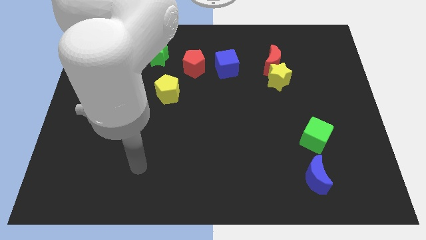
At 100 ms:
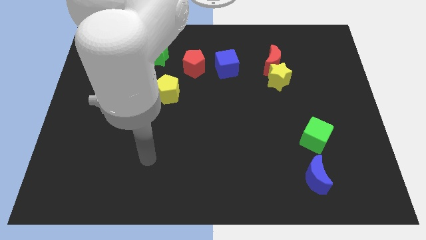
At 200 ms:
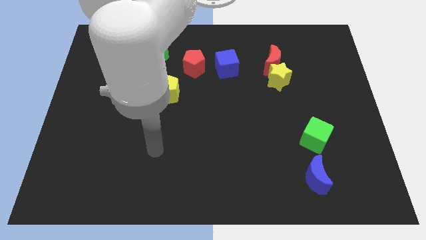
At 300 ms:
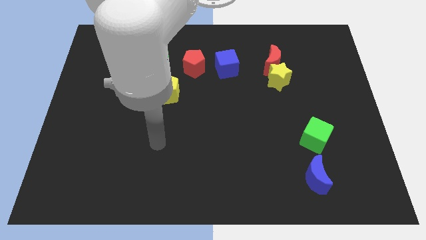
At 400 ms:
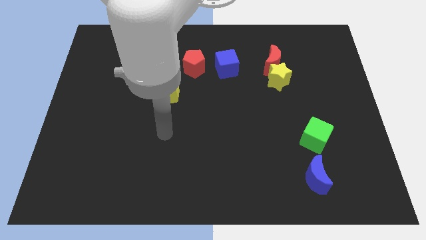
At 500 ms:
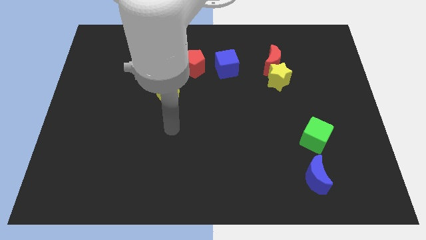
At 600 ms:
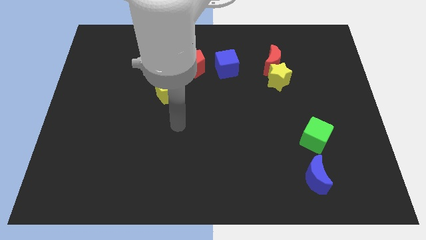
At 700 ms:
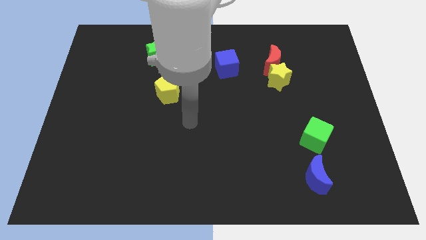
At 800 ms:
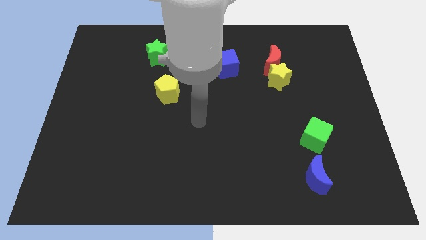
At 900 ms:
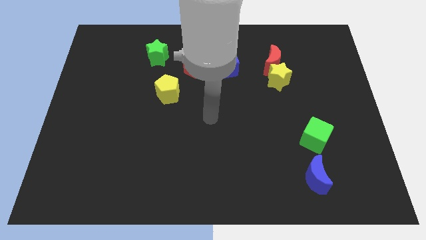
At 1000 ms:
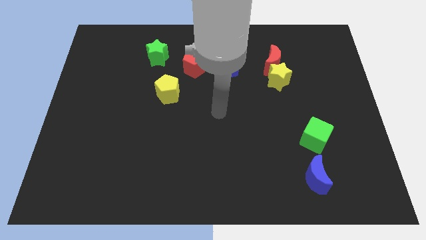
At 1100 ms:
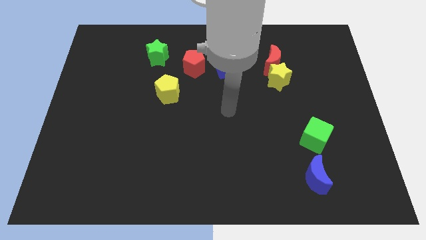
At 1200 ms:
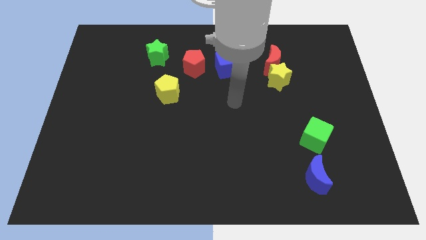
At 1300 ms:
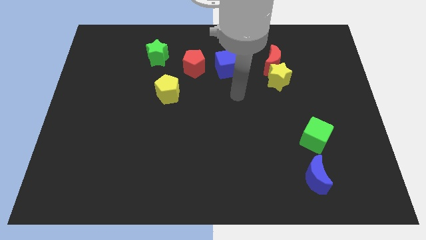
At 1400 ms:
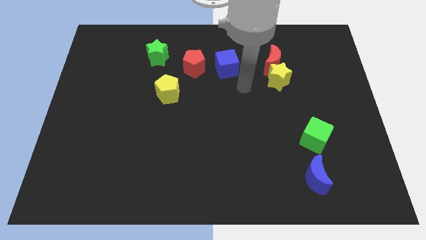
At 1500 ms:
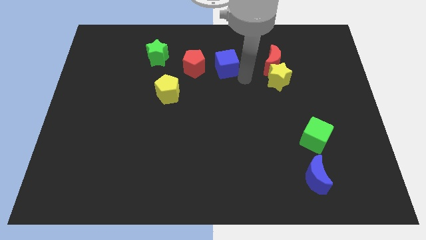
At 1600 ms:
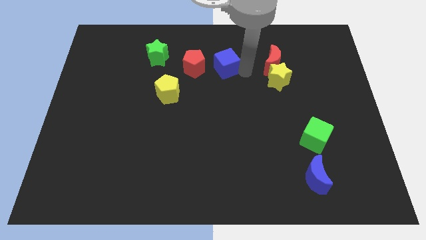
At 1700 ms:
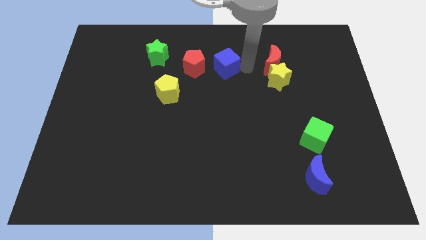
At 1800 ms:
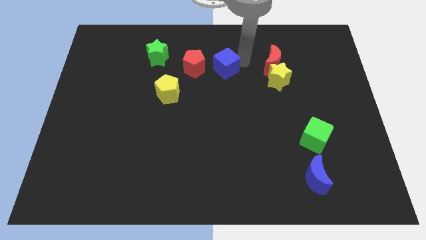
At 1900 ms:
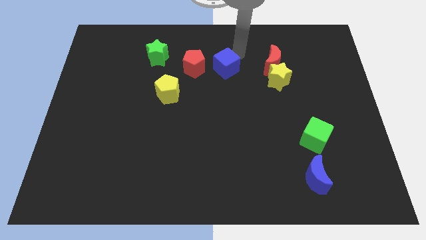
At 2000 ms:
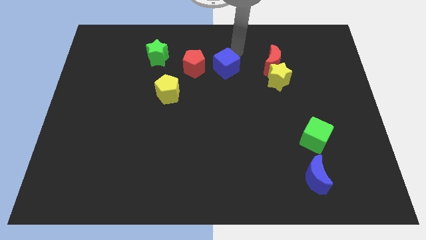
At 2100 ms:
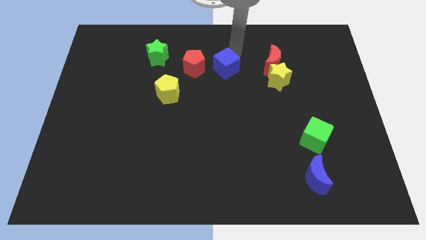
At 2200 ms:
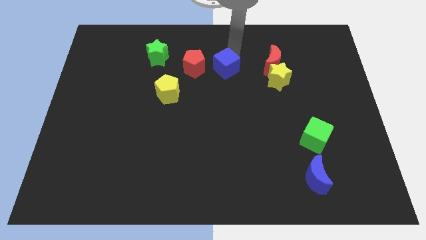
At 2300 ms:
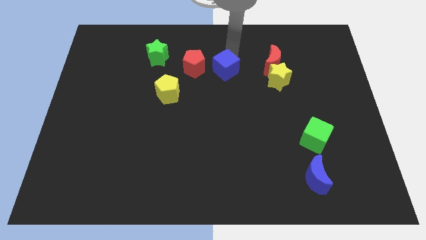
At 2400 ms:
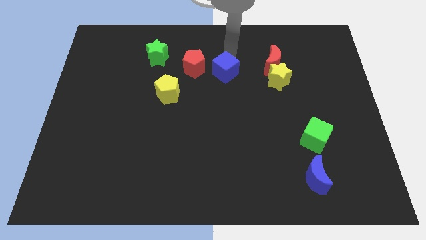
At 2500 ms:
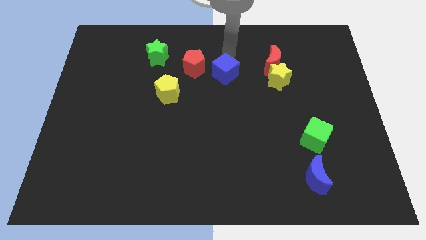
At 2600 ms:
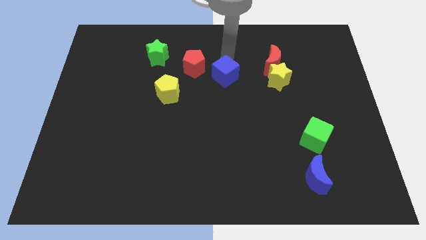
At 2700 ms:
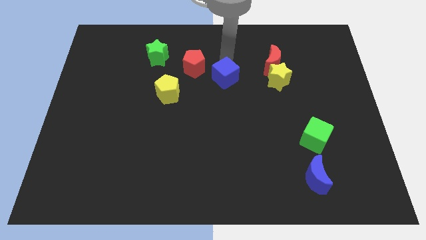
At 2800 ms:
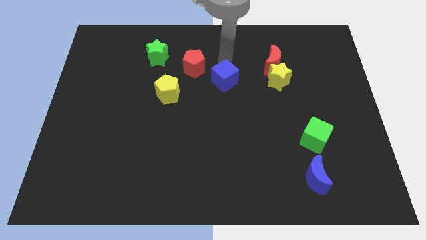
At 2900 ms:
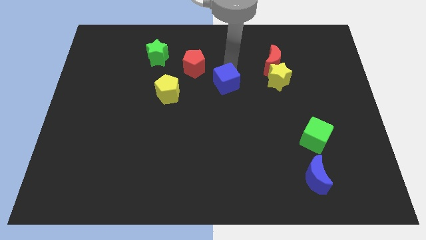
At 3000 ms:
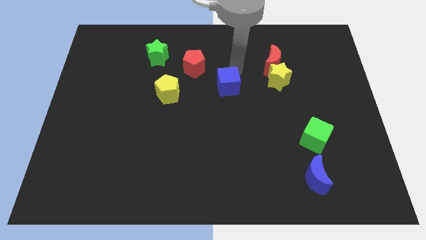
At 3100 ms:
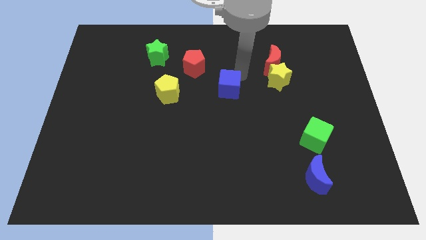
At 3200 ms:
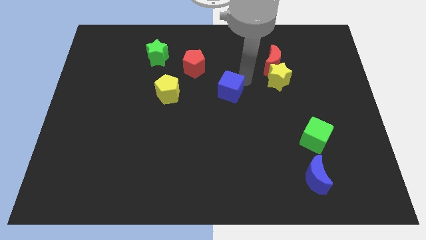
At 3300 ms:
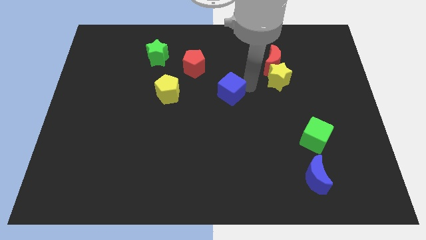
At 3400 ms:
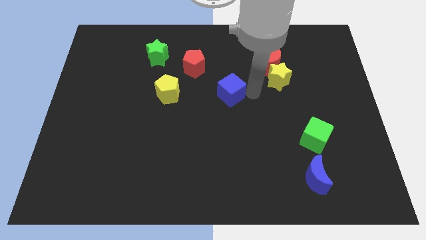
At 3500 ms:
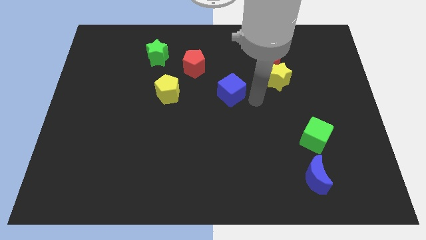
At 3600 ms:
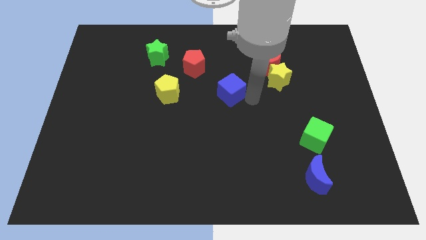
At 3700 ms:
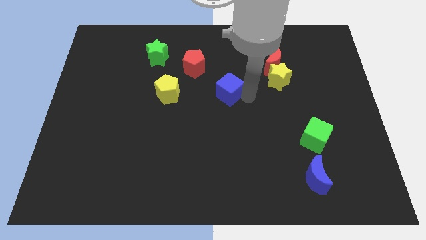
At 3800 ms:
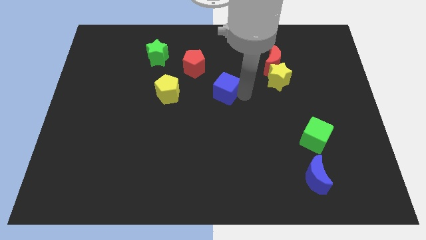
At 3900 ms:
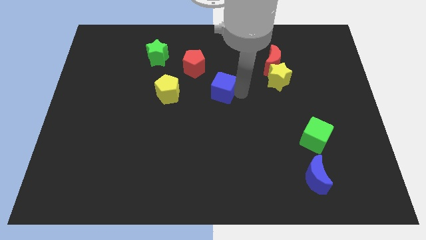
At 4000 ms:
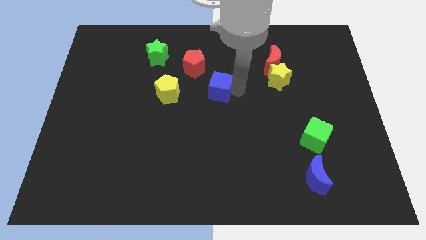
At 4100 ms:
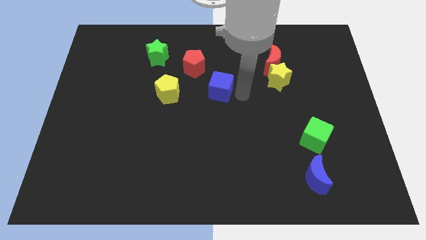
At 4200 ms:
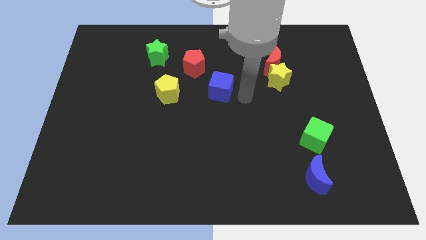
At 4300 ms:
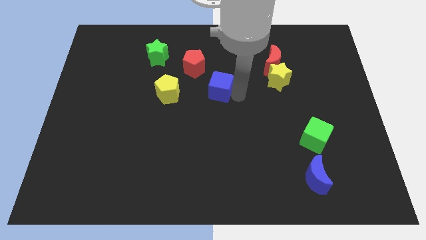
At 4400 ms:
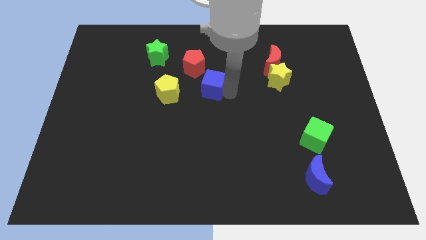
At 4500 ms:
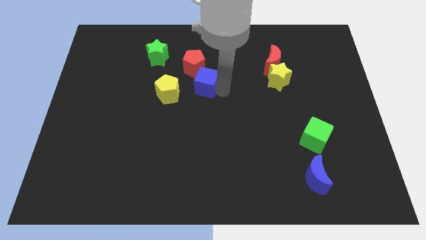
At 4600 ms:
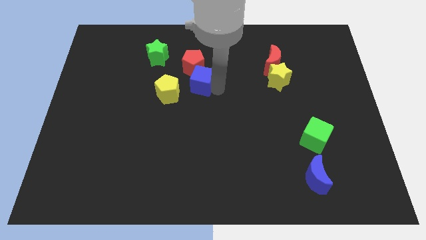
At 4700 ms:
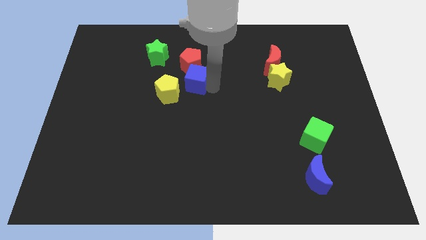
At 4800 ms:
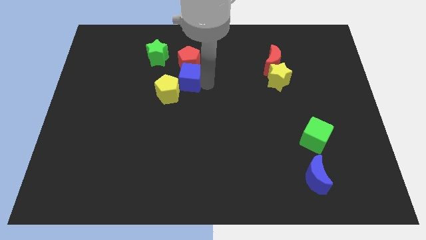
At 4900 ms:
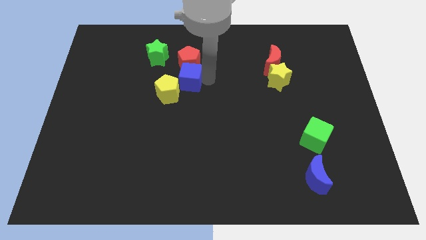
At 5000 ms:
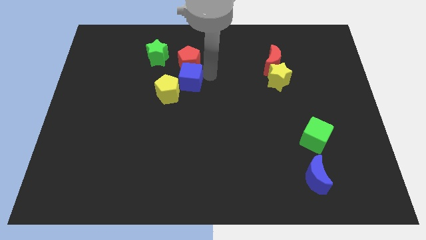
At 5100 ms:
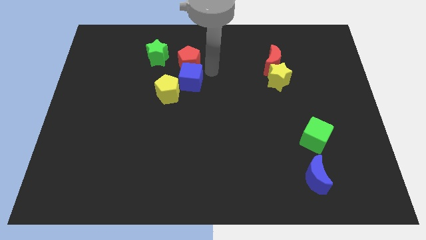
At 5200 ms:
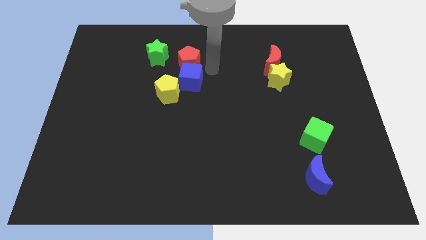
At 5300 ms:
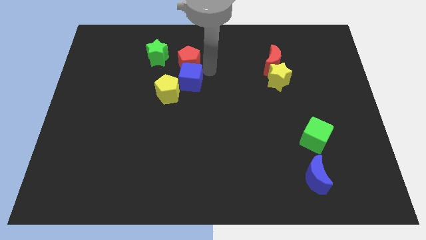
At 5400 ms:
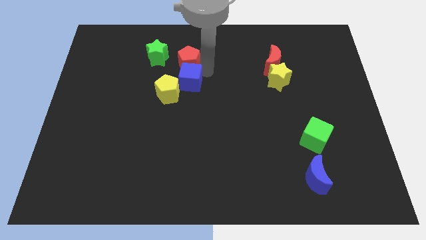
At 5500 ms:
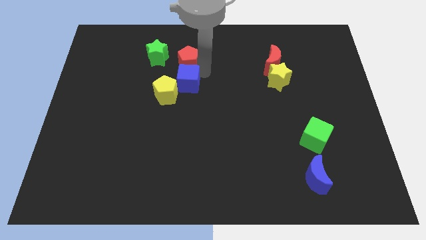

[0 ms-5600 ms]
put the blue cube to the yellow pentagon

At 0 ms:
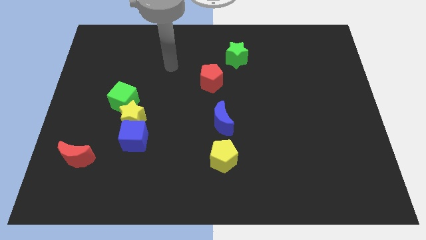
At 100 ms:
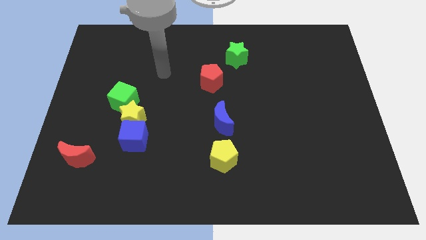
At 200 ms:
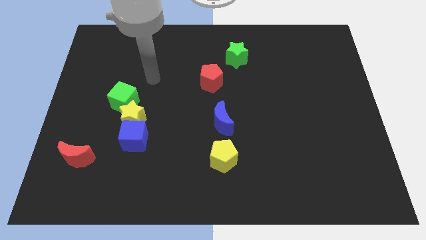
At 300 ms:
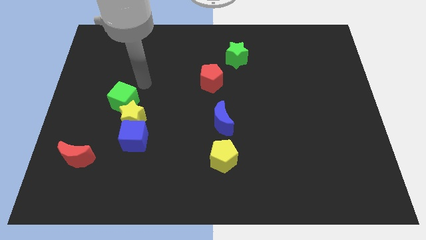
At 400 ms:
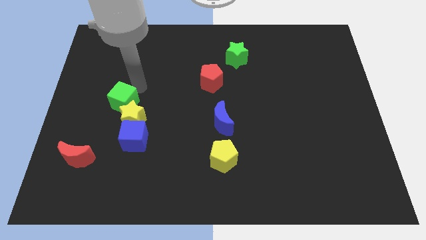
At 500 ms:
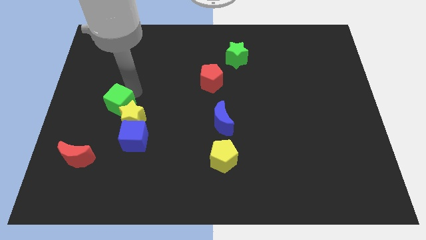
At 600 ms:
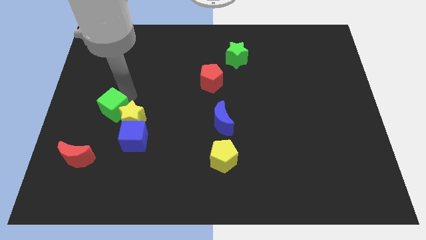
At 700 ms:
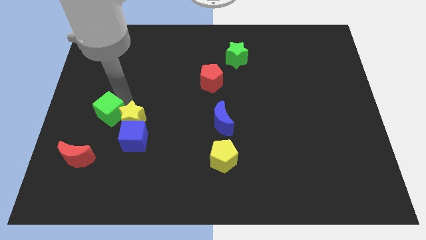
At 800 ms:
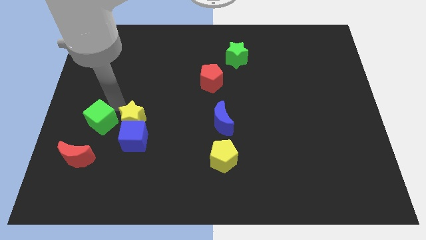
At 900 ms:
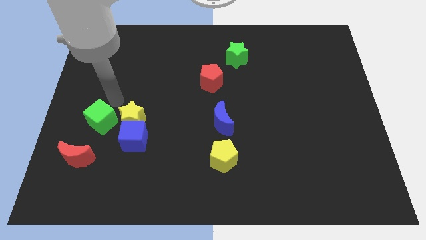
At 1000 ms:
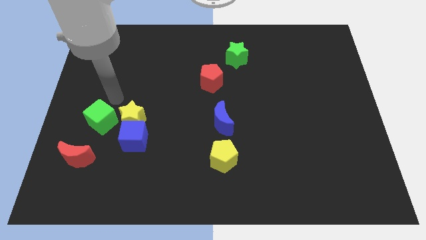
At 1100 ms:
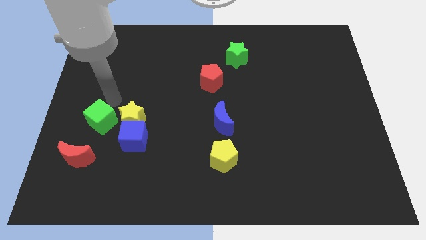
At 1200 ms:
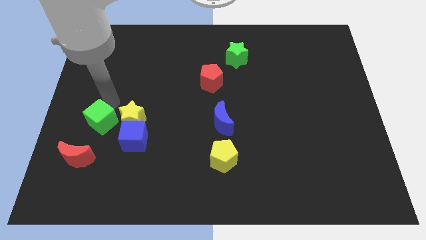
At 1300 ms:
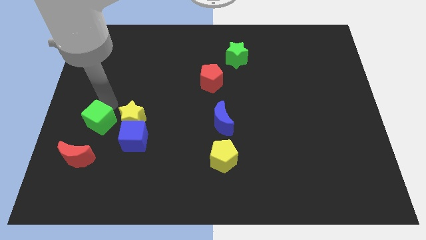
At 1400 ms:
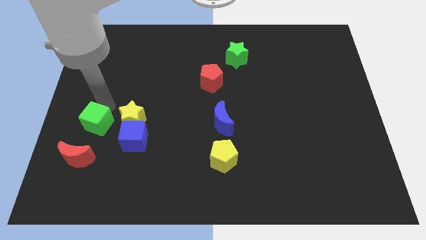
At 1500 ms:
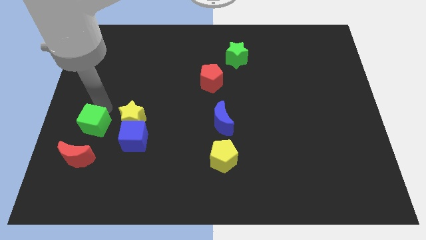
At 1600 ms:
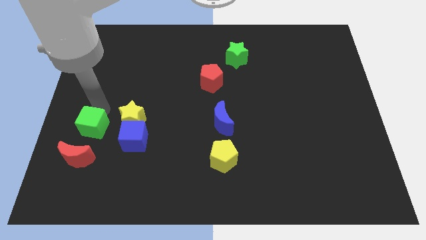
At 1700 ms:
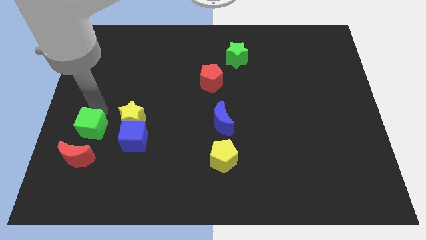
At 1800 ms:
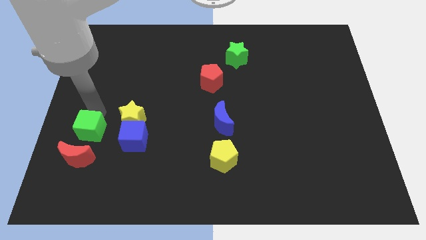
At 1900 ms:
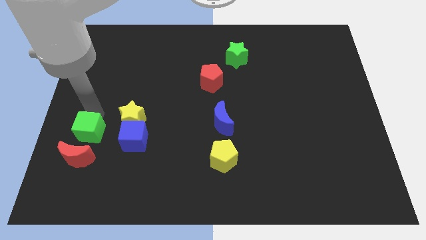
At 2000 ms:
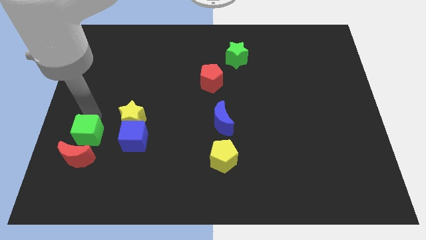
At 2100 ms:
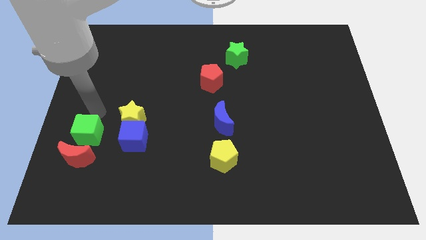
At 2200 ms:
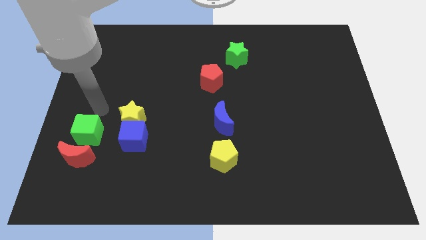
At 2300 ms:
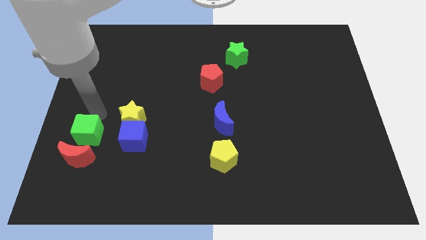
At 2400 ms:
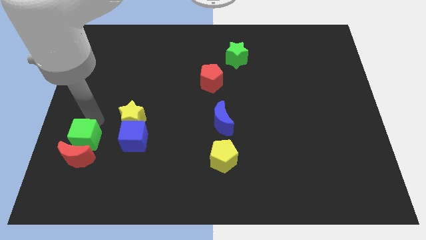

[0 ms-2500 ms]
put the green cube next to the red moon
